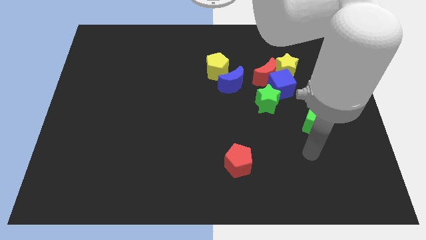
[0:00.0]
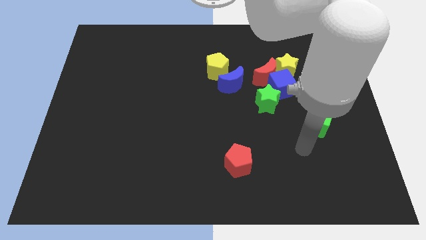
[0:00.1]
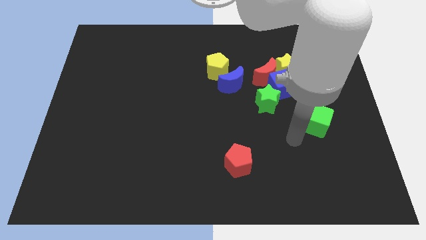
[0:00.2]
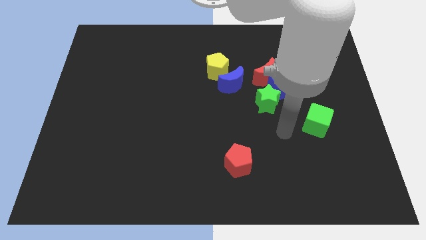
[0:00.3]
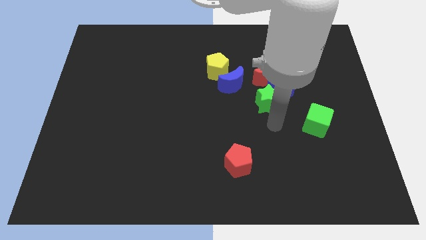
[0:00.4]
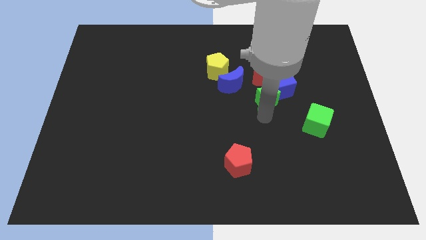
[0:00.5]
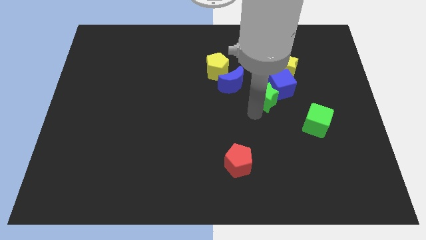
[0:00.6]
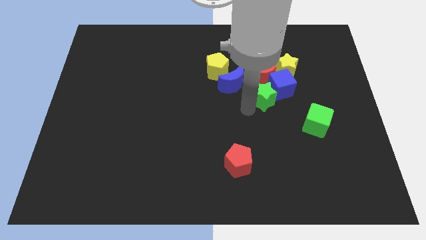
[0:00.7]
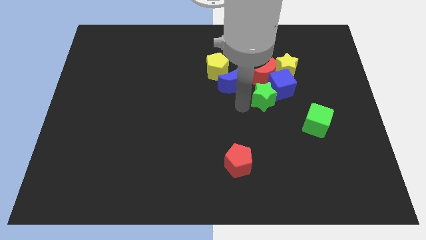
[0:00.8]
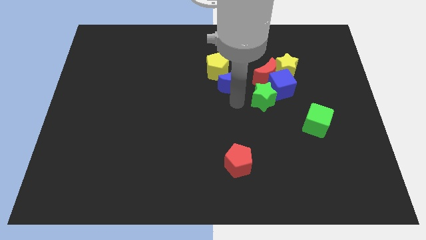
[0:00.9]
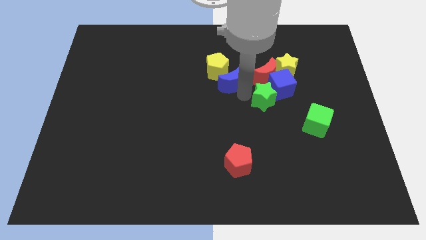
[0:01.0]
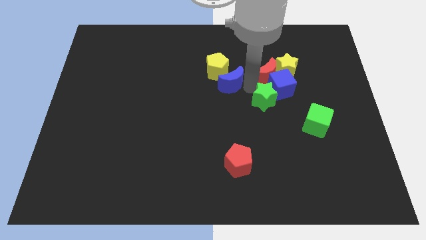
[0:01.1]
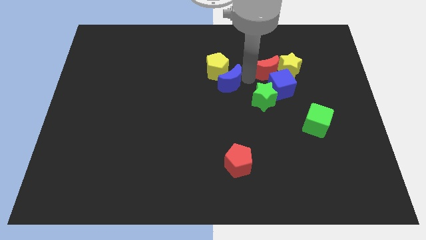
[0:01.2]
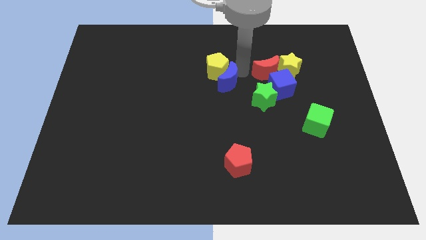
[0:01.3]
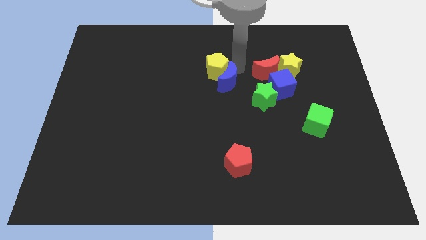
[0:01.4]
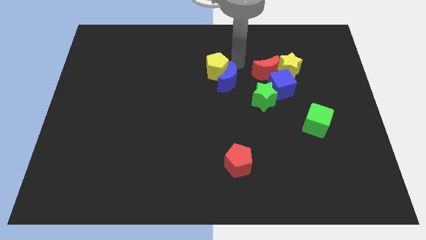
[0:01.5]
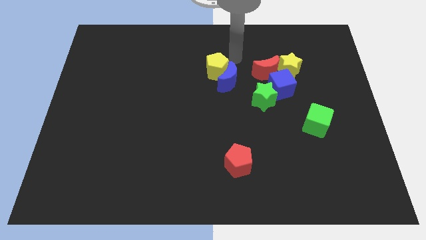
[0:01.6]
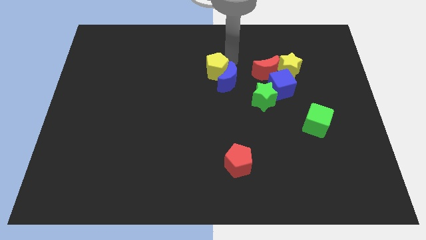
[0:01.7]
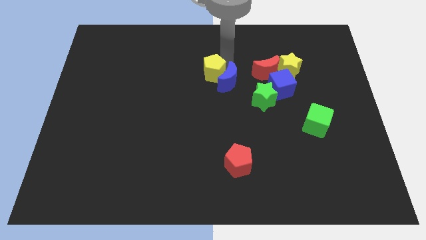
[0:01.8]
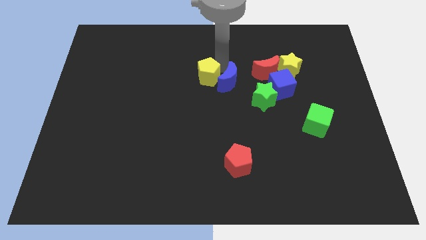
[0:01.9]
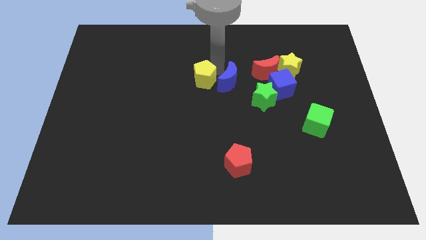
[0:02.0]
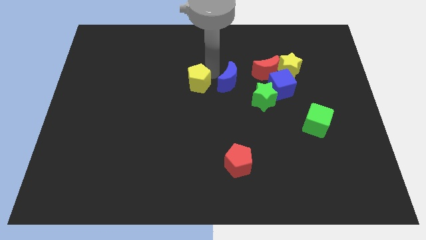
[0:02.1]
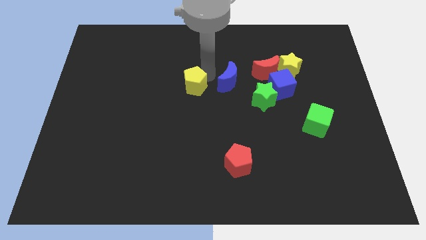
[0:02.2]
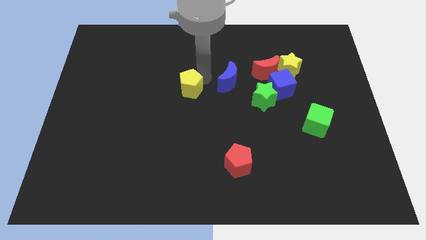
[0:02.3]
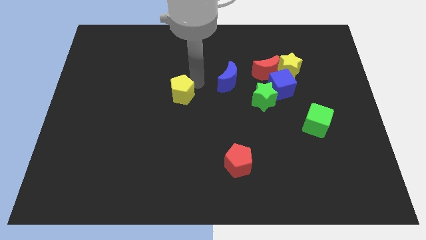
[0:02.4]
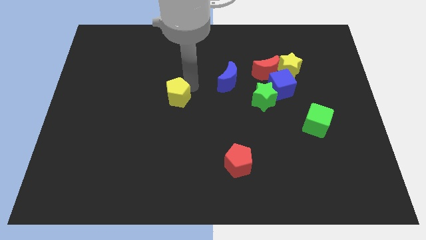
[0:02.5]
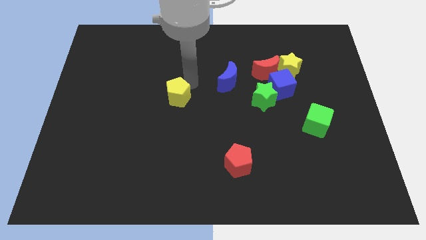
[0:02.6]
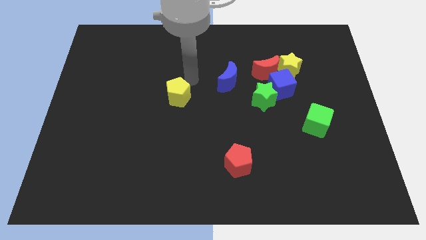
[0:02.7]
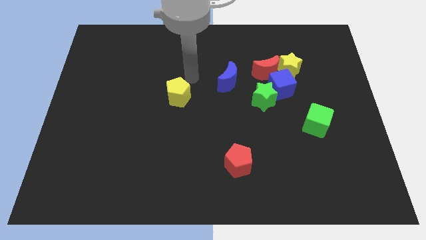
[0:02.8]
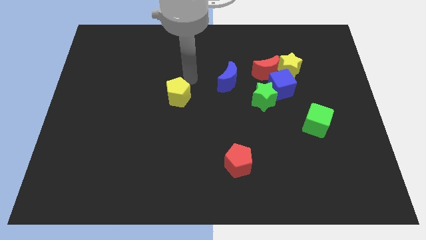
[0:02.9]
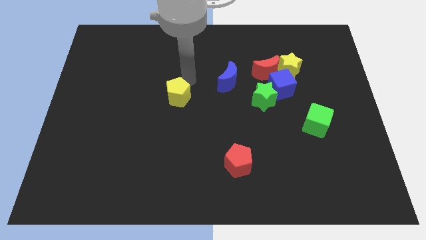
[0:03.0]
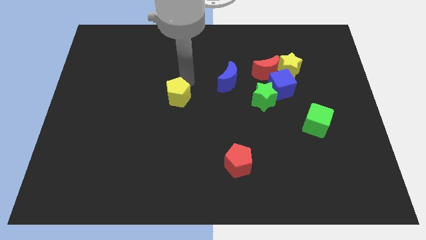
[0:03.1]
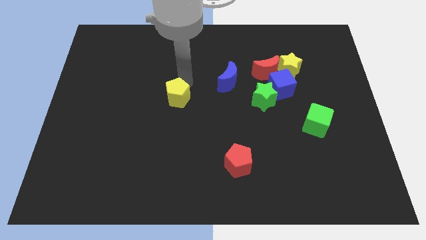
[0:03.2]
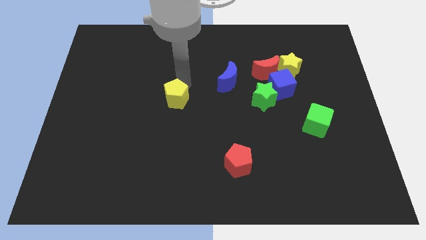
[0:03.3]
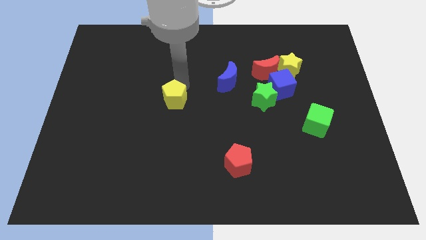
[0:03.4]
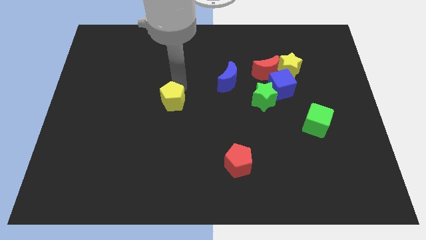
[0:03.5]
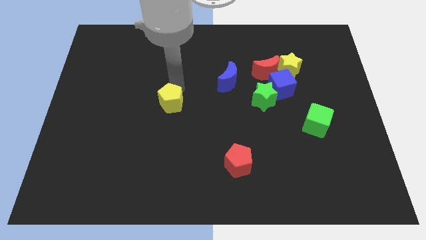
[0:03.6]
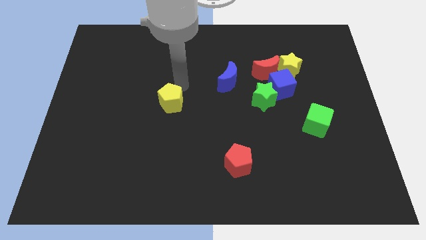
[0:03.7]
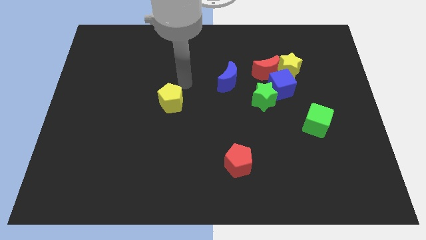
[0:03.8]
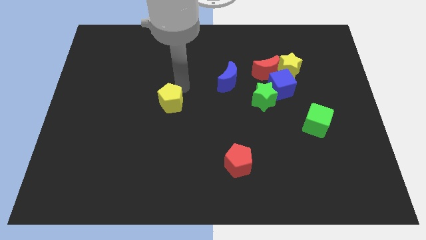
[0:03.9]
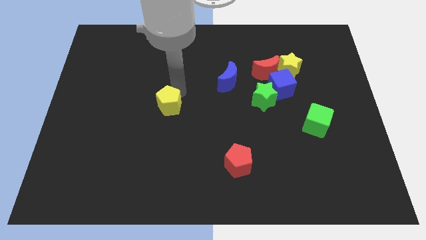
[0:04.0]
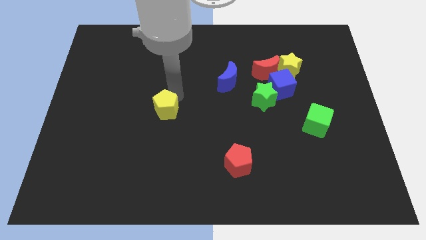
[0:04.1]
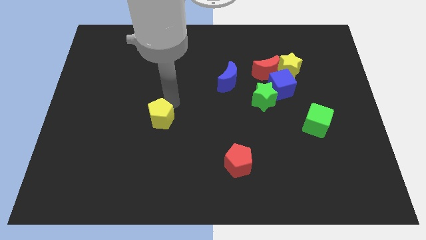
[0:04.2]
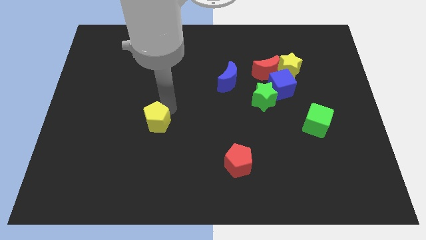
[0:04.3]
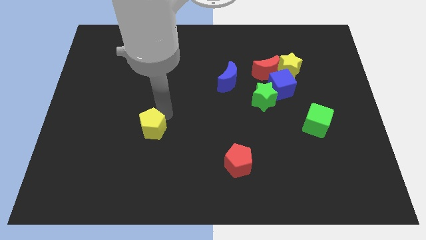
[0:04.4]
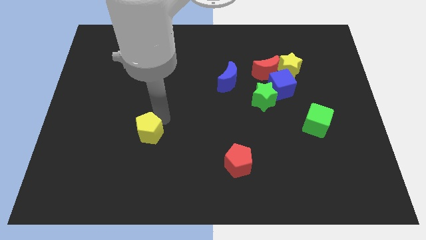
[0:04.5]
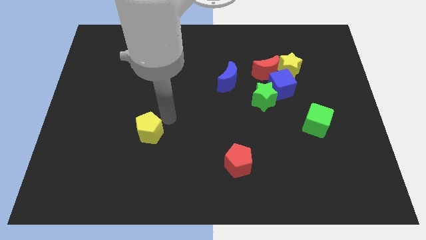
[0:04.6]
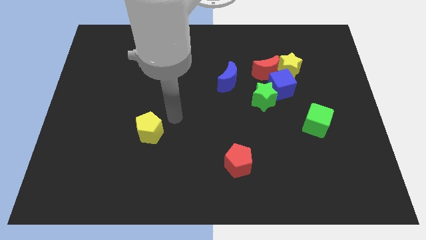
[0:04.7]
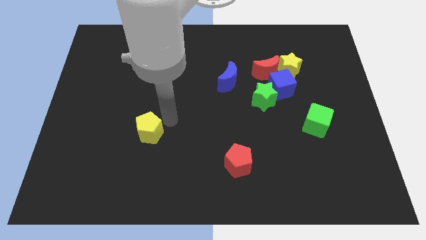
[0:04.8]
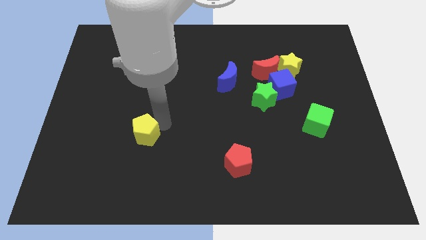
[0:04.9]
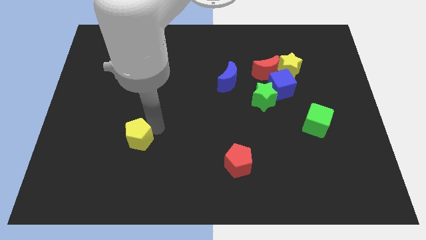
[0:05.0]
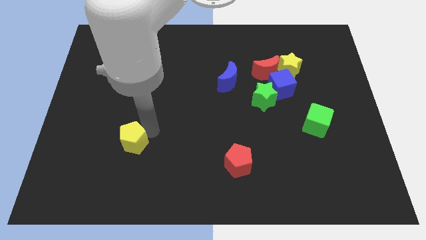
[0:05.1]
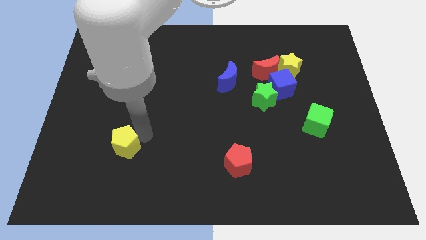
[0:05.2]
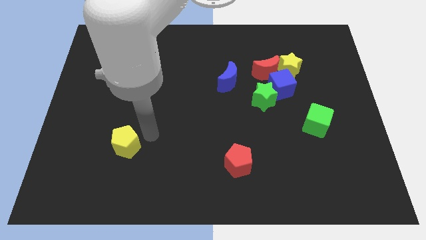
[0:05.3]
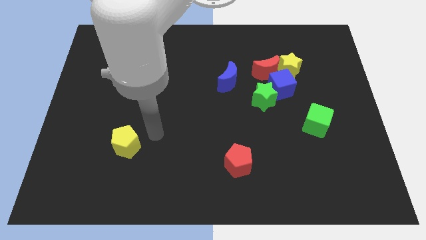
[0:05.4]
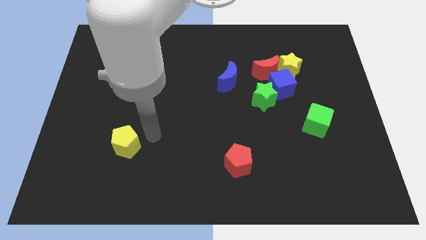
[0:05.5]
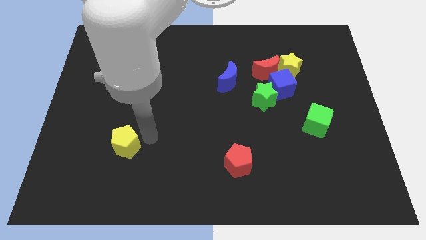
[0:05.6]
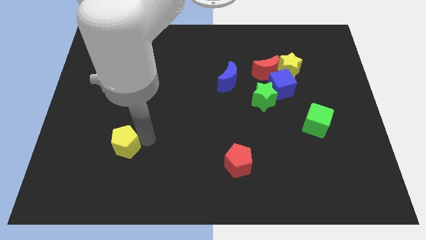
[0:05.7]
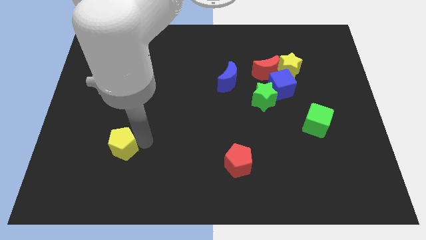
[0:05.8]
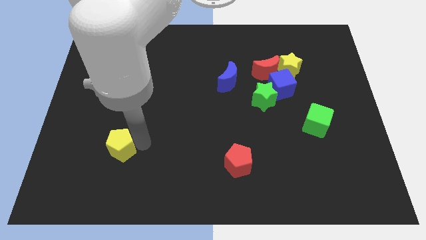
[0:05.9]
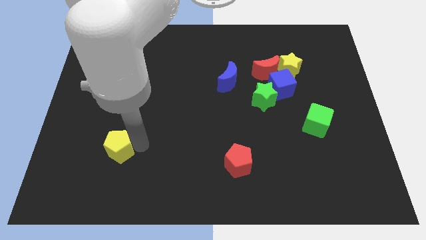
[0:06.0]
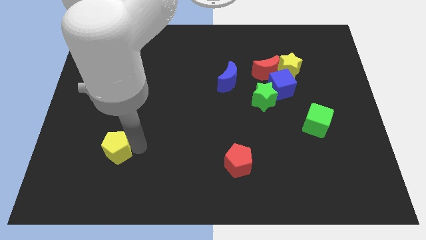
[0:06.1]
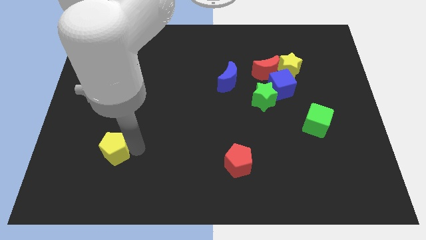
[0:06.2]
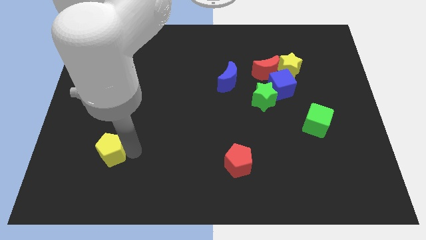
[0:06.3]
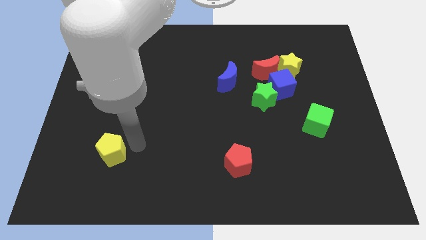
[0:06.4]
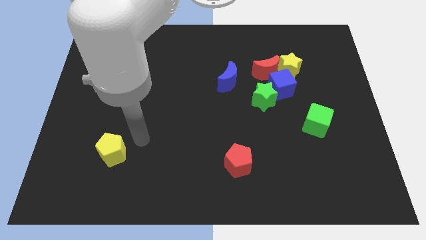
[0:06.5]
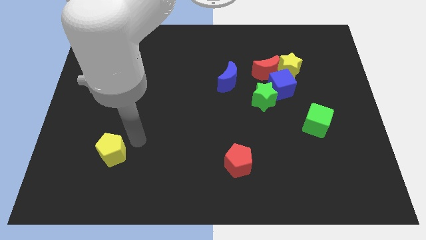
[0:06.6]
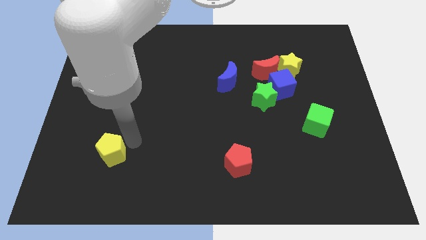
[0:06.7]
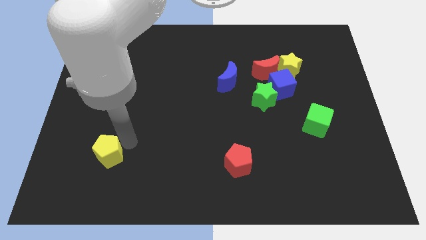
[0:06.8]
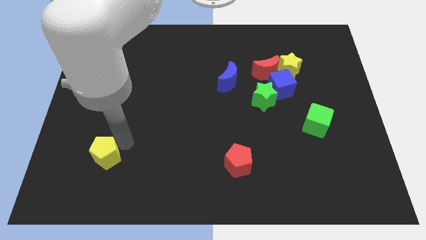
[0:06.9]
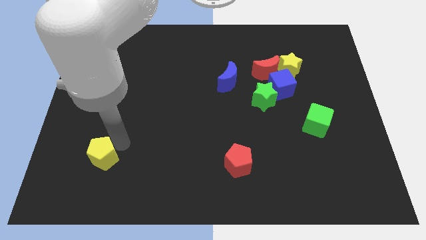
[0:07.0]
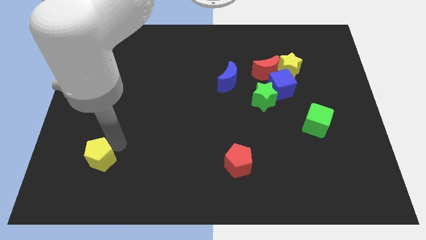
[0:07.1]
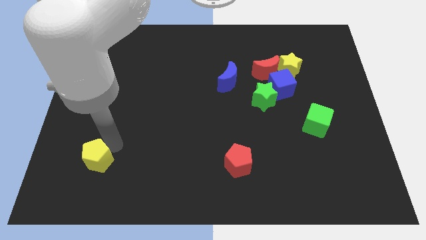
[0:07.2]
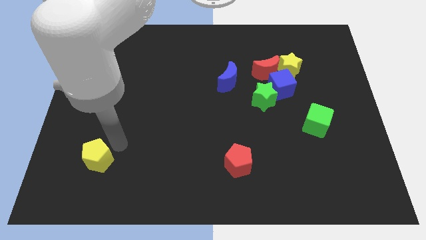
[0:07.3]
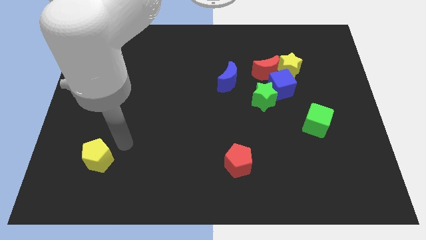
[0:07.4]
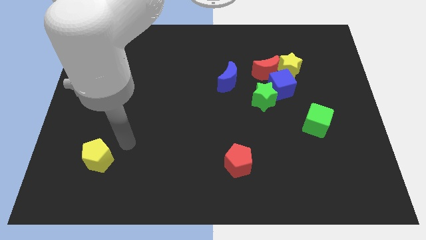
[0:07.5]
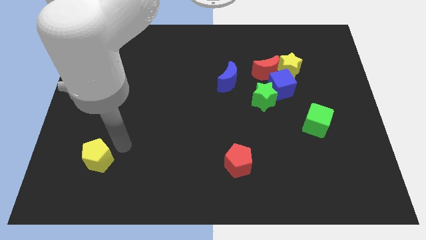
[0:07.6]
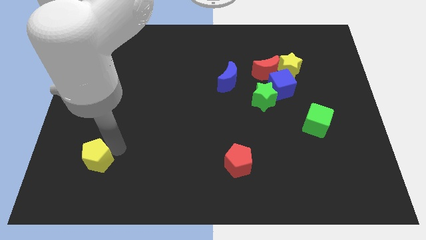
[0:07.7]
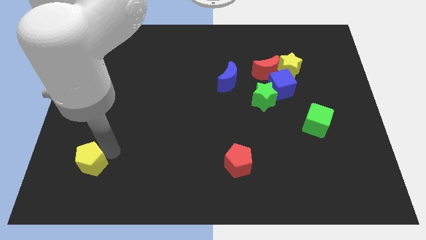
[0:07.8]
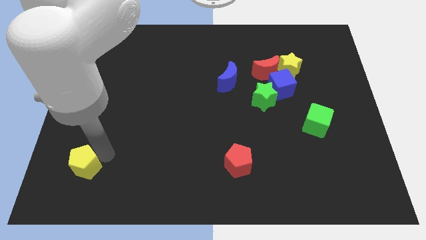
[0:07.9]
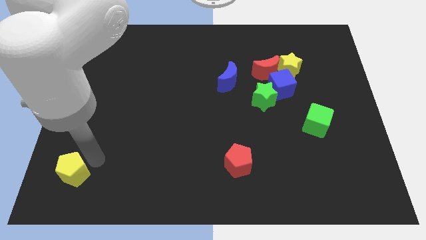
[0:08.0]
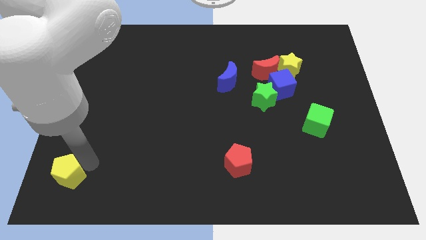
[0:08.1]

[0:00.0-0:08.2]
put the yellow pentagon to the lower left corner
